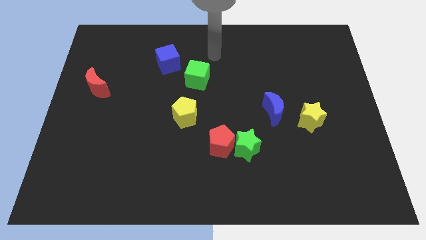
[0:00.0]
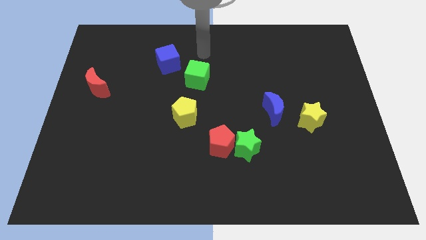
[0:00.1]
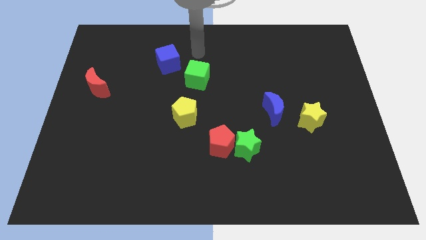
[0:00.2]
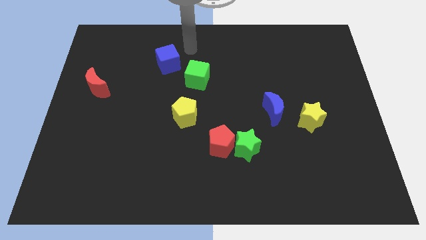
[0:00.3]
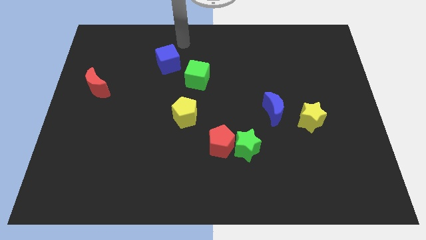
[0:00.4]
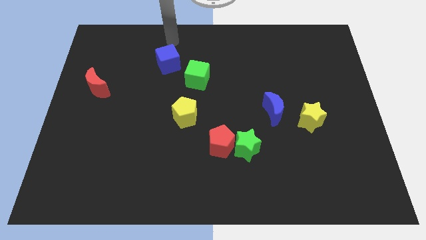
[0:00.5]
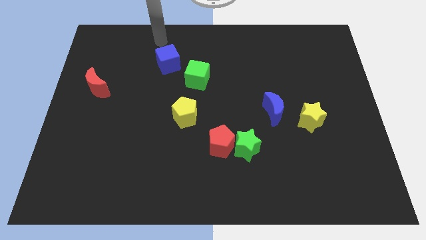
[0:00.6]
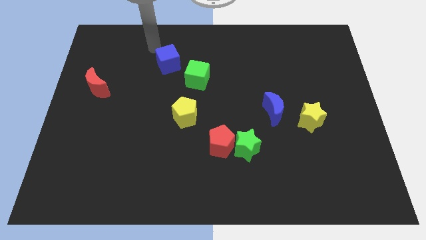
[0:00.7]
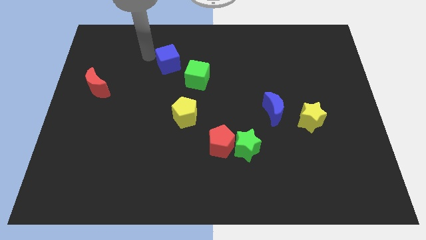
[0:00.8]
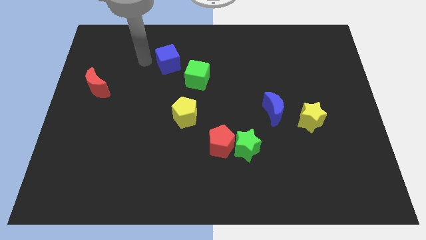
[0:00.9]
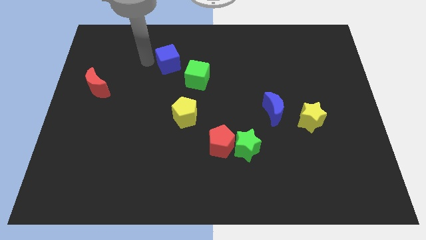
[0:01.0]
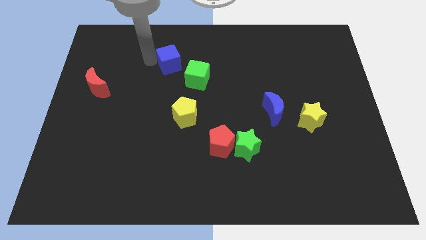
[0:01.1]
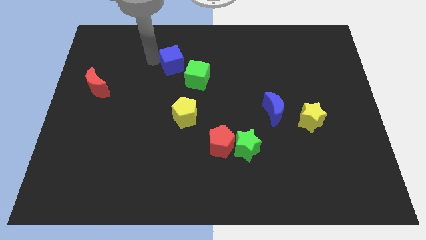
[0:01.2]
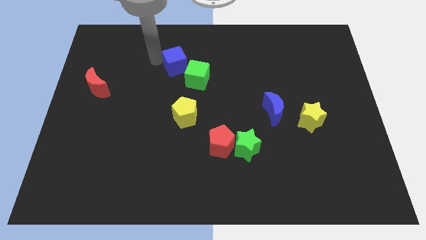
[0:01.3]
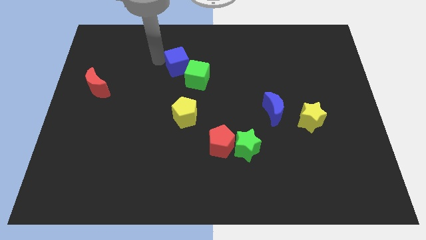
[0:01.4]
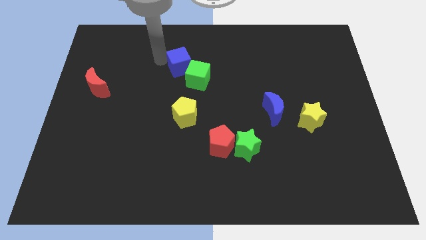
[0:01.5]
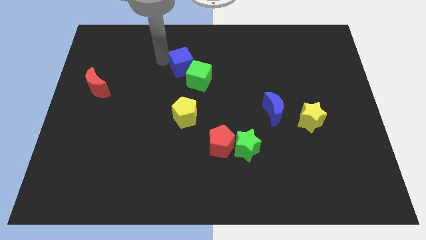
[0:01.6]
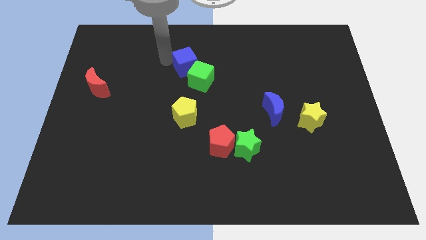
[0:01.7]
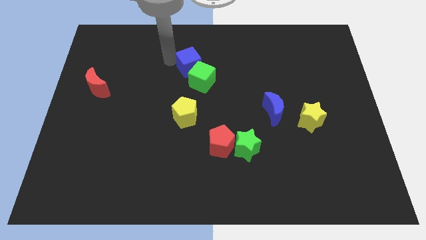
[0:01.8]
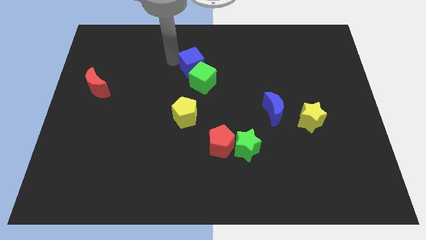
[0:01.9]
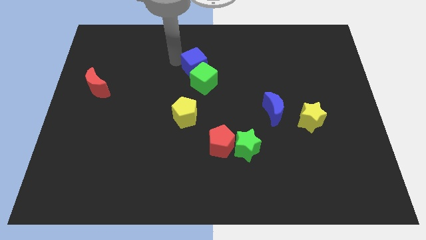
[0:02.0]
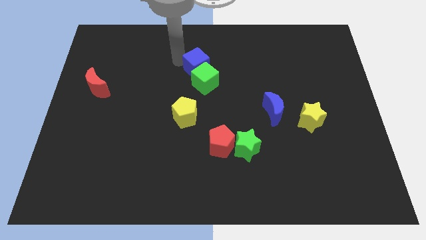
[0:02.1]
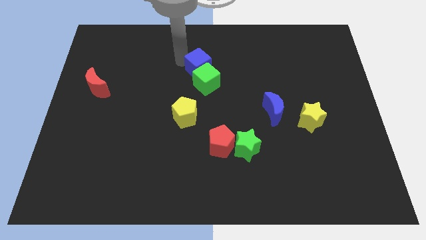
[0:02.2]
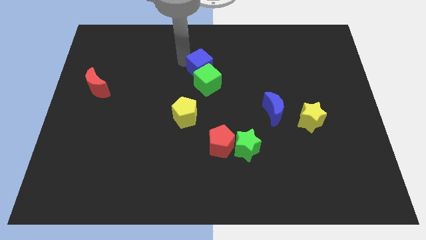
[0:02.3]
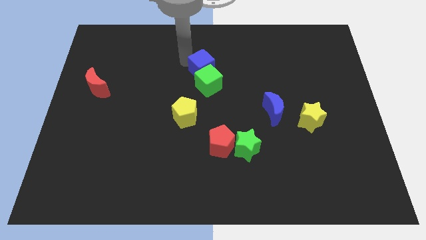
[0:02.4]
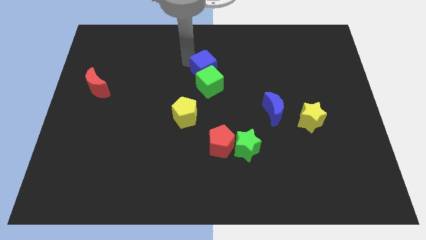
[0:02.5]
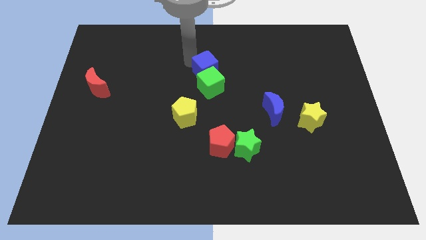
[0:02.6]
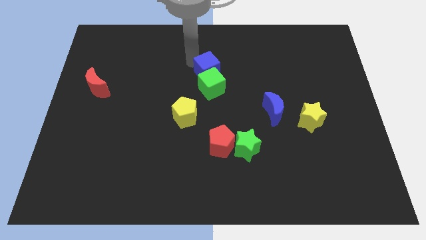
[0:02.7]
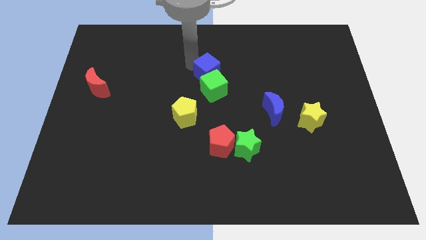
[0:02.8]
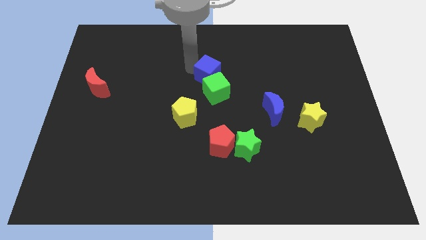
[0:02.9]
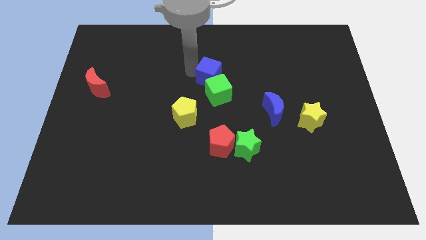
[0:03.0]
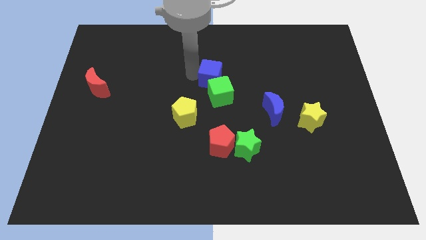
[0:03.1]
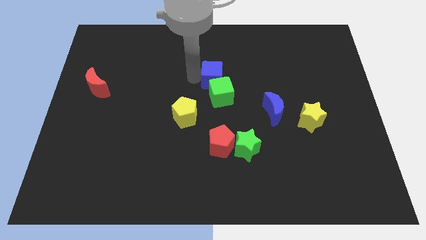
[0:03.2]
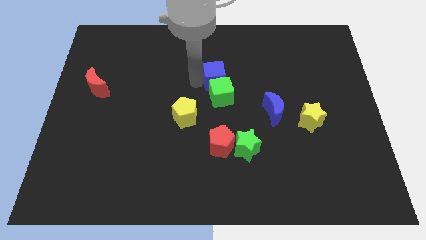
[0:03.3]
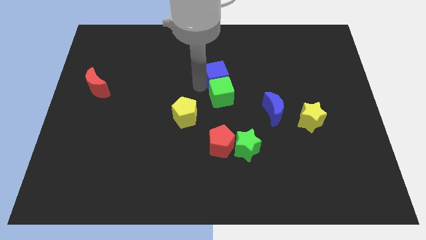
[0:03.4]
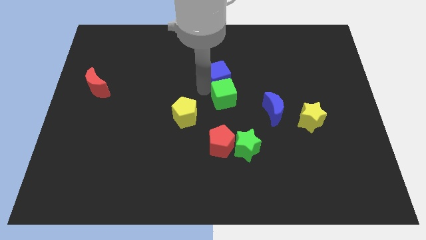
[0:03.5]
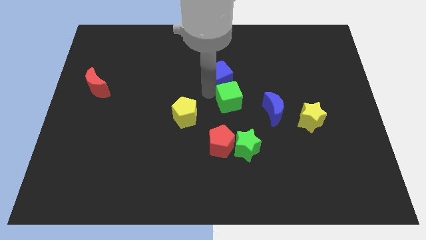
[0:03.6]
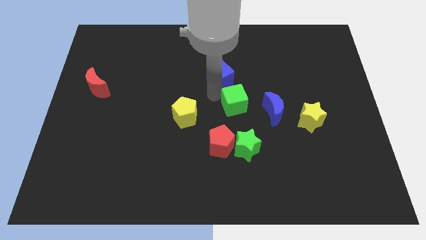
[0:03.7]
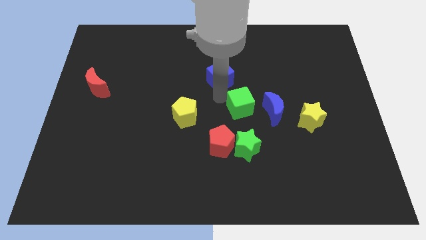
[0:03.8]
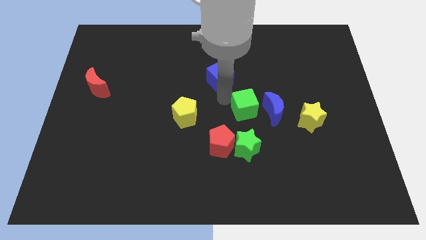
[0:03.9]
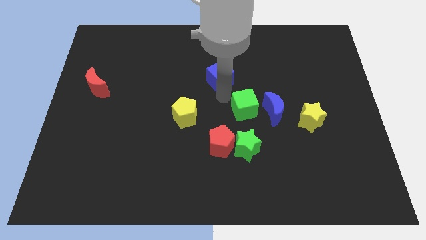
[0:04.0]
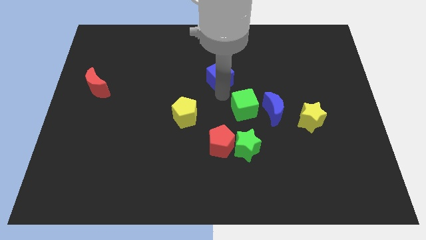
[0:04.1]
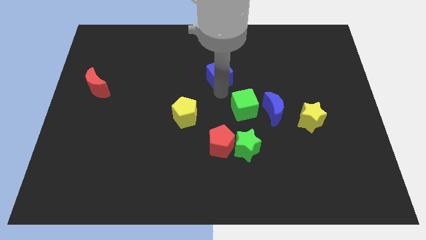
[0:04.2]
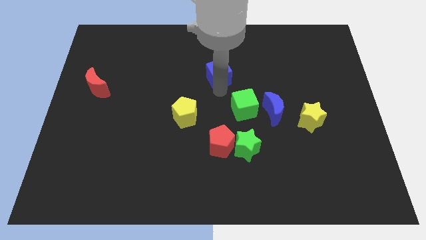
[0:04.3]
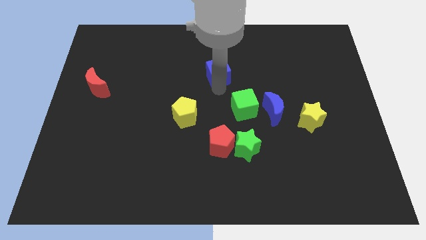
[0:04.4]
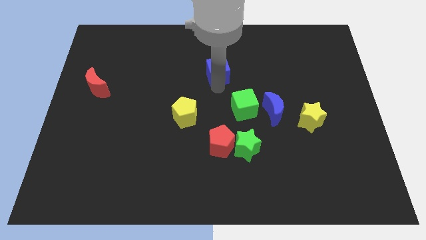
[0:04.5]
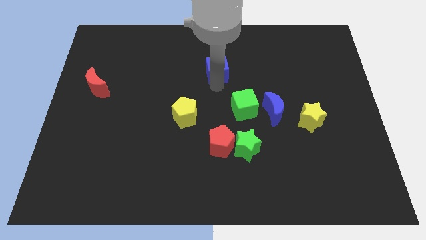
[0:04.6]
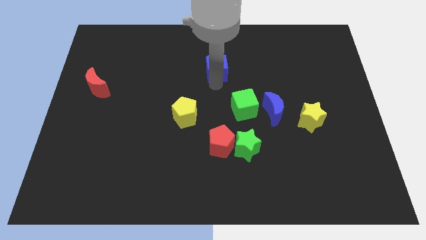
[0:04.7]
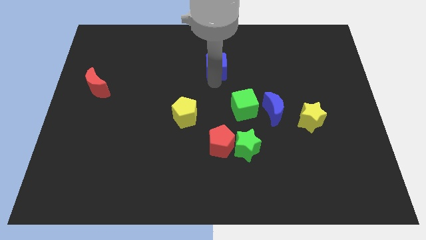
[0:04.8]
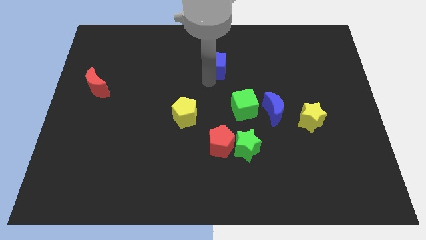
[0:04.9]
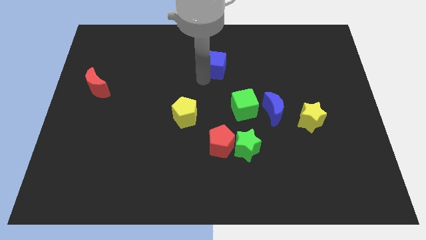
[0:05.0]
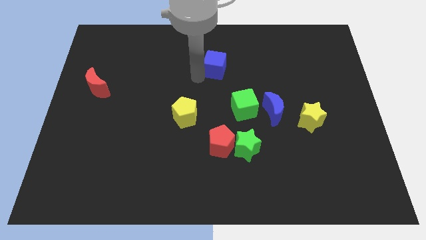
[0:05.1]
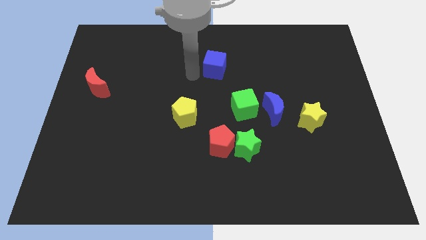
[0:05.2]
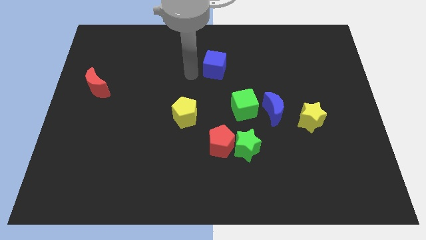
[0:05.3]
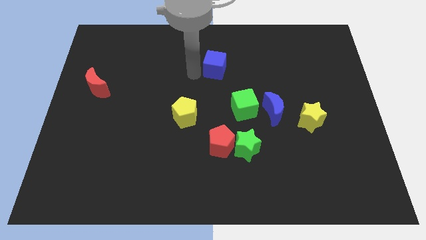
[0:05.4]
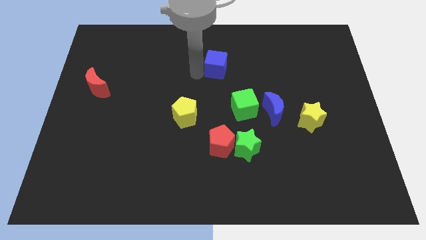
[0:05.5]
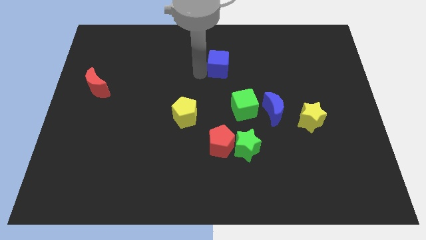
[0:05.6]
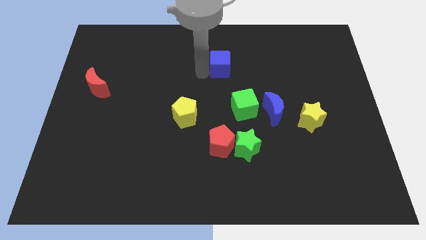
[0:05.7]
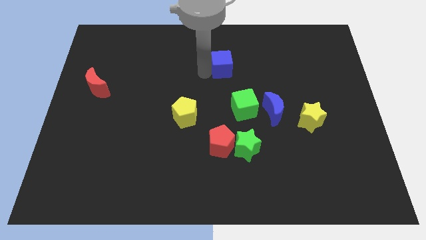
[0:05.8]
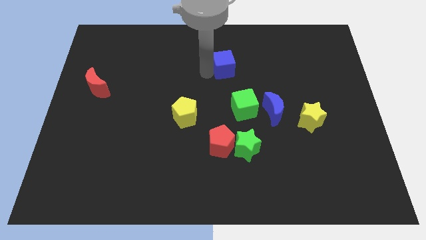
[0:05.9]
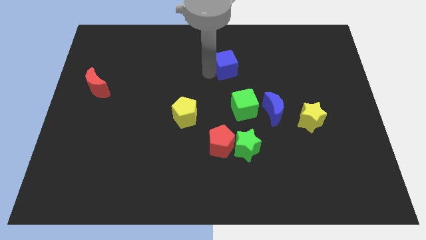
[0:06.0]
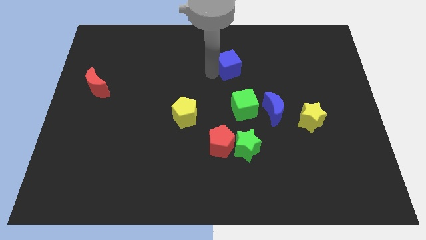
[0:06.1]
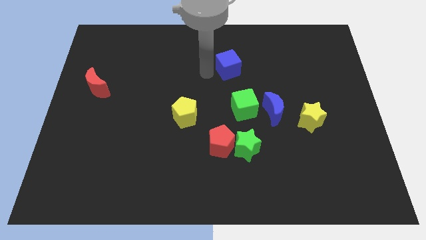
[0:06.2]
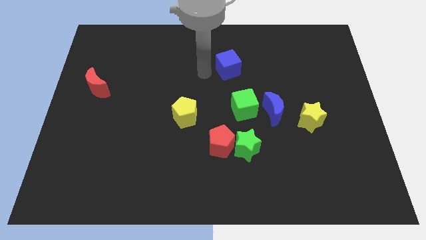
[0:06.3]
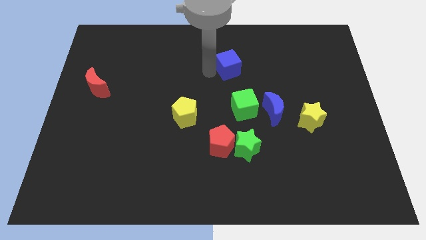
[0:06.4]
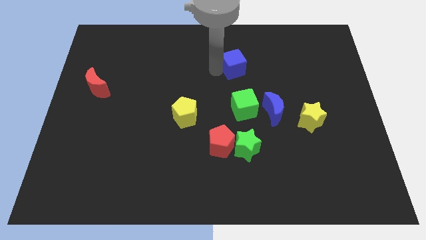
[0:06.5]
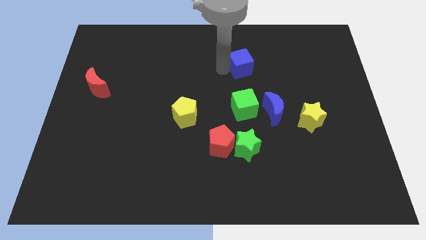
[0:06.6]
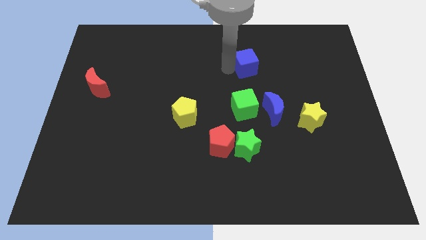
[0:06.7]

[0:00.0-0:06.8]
push the blue cube right

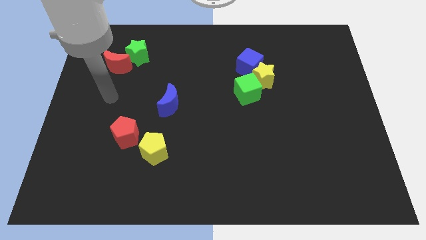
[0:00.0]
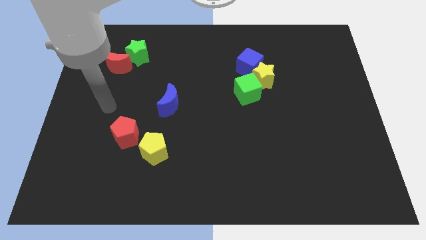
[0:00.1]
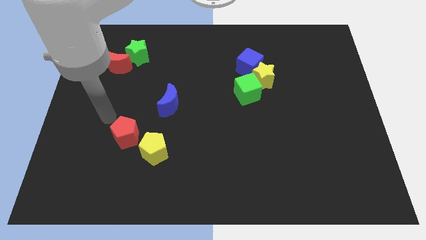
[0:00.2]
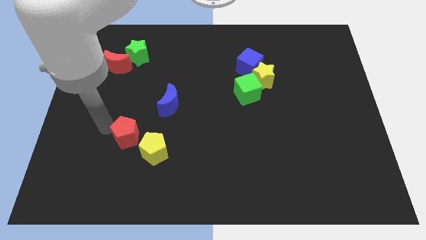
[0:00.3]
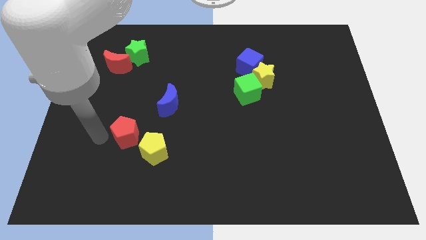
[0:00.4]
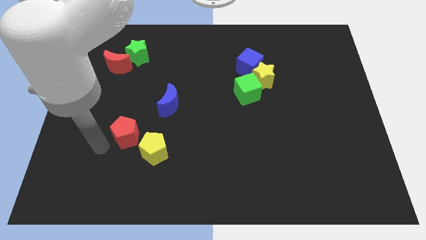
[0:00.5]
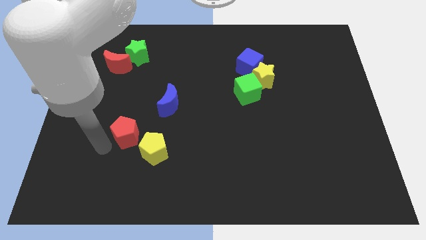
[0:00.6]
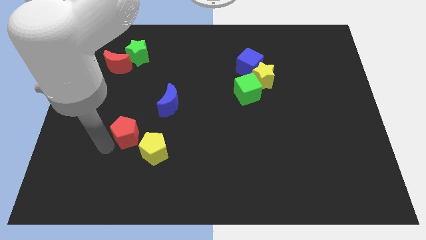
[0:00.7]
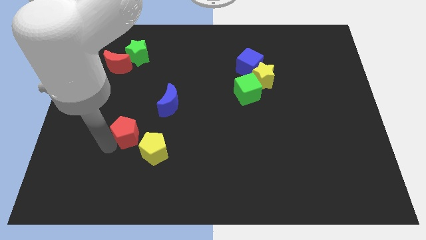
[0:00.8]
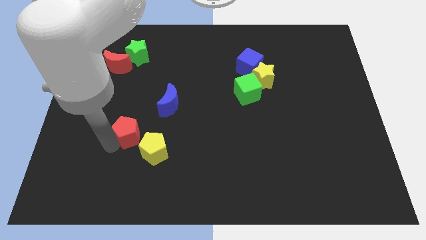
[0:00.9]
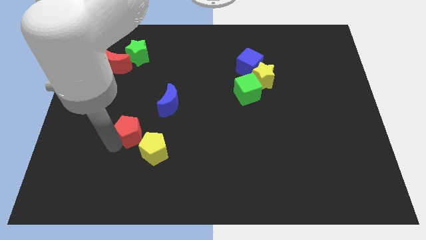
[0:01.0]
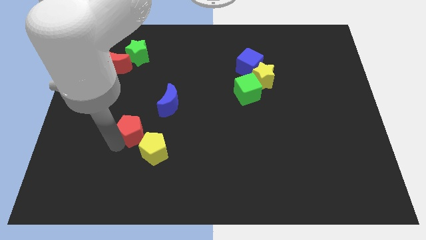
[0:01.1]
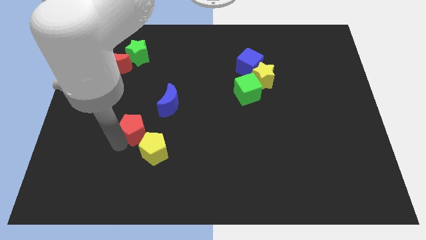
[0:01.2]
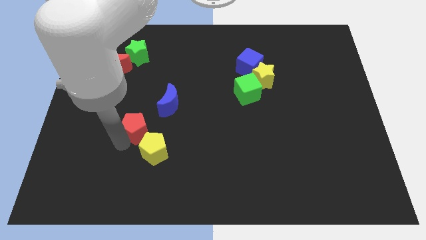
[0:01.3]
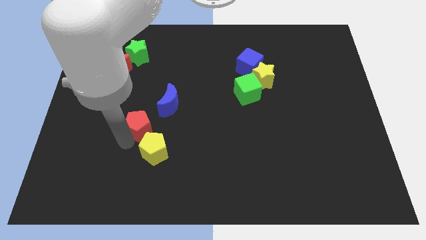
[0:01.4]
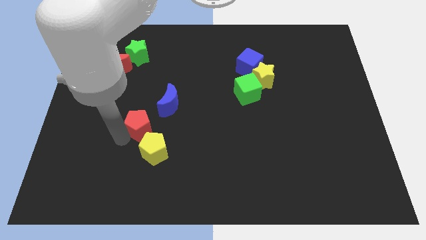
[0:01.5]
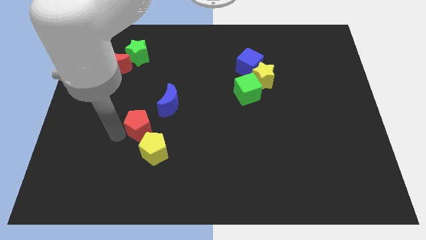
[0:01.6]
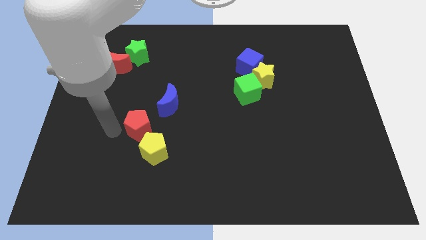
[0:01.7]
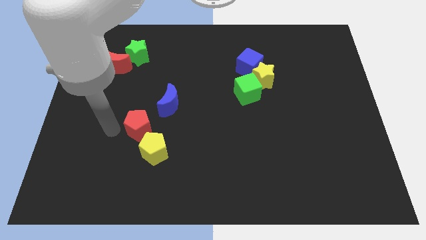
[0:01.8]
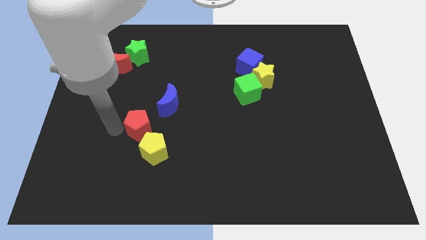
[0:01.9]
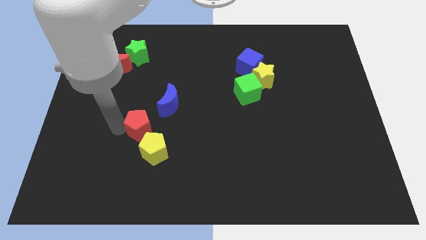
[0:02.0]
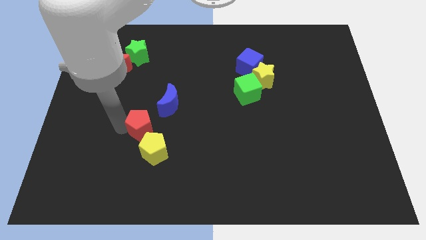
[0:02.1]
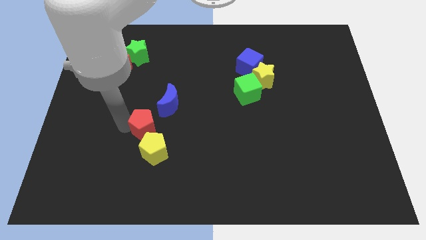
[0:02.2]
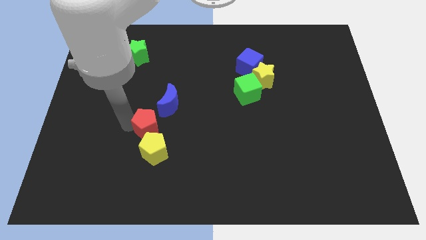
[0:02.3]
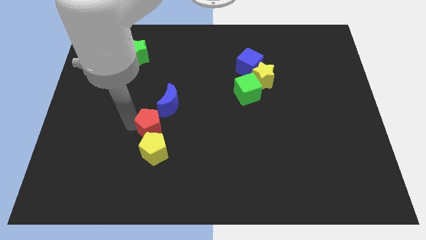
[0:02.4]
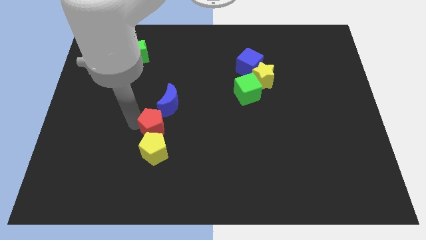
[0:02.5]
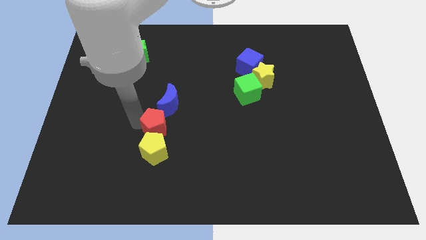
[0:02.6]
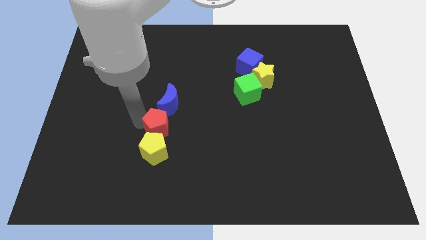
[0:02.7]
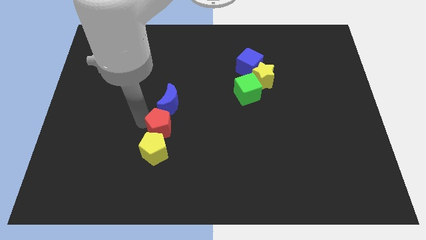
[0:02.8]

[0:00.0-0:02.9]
slide the red pentagon somewhat right
